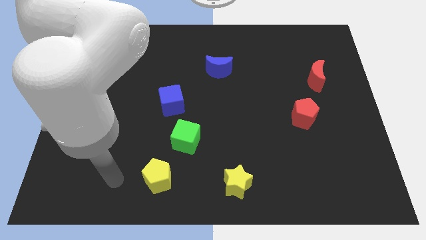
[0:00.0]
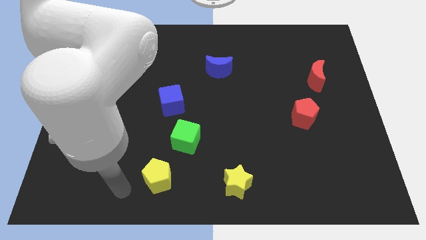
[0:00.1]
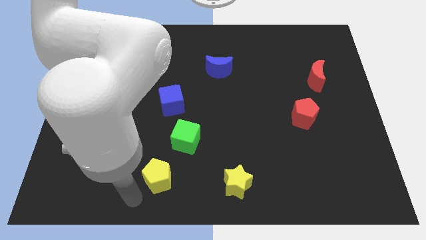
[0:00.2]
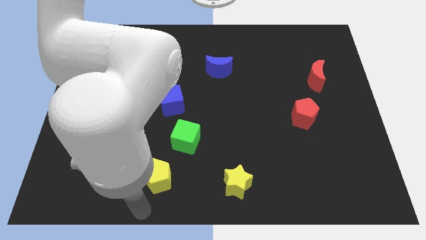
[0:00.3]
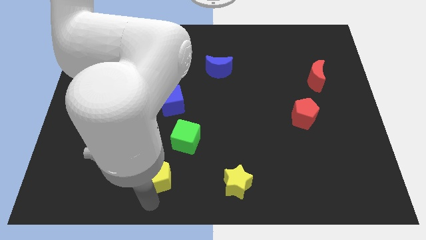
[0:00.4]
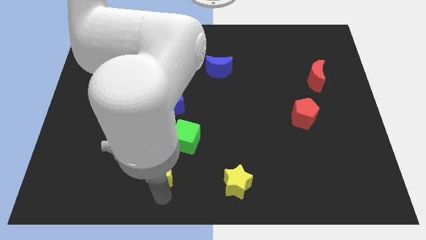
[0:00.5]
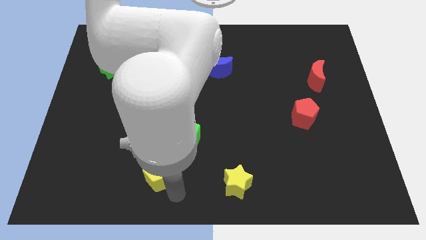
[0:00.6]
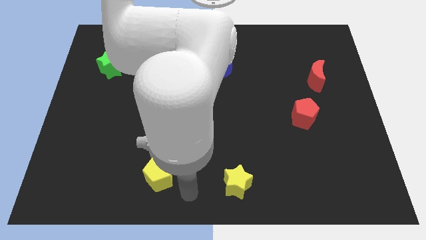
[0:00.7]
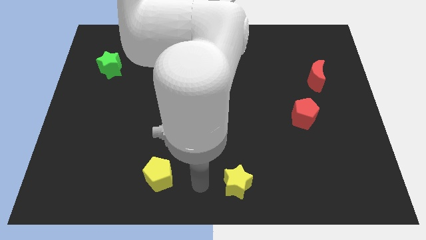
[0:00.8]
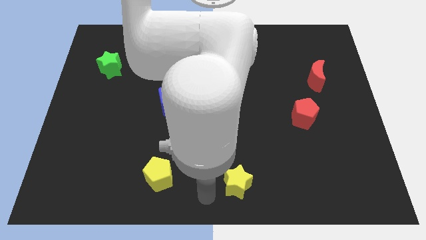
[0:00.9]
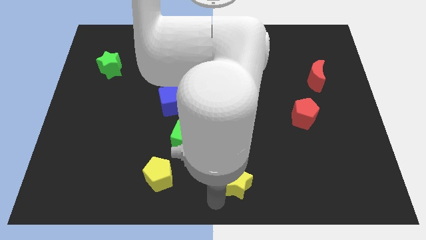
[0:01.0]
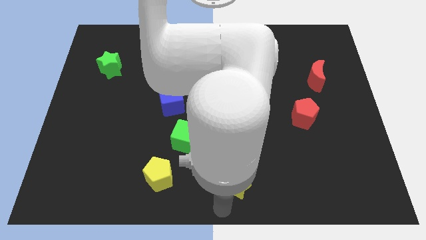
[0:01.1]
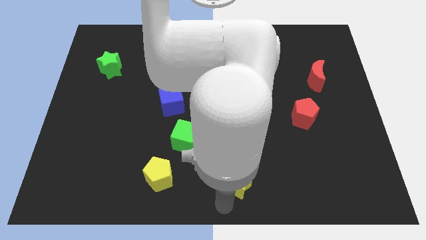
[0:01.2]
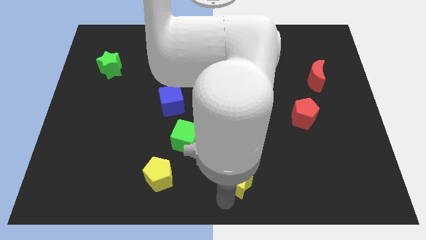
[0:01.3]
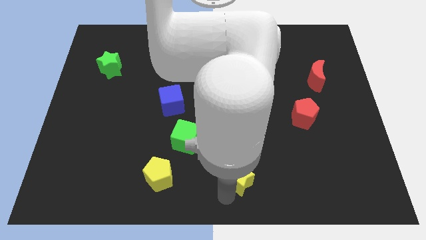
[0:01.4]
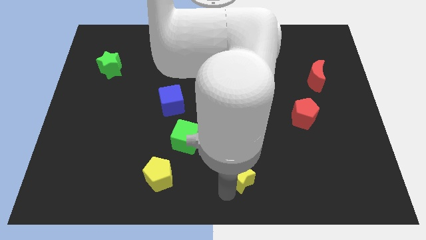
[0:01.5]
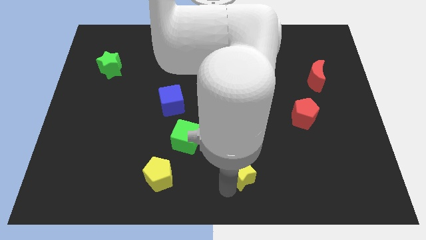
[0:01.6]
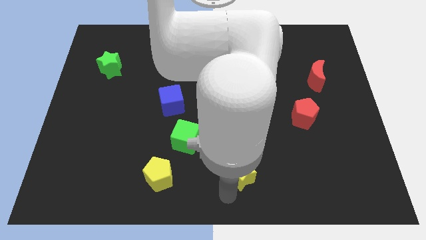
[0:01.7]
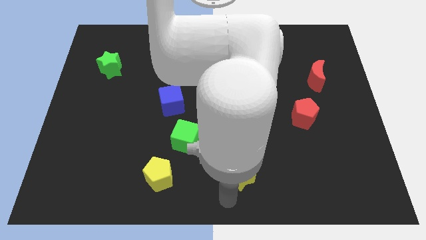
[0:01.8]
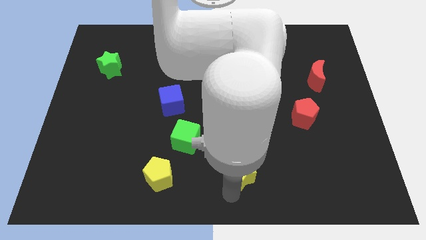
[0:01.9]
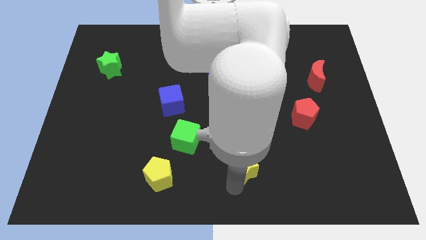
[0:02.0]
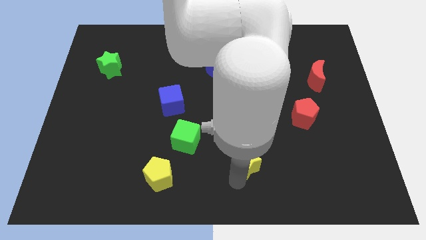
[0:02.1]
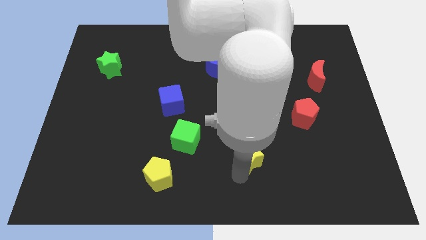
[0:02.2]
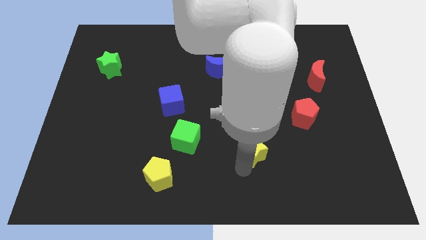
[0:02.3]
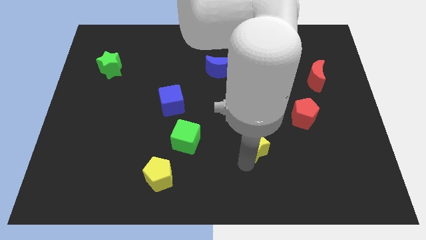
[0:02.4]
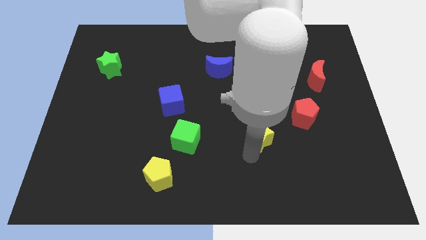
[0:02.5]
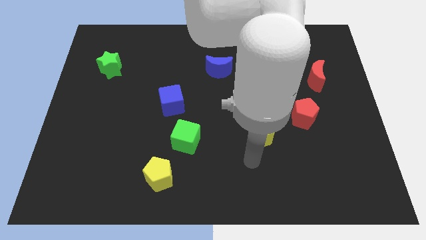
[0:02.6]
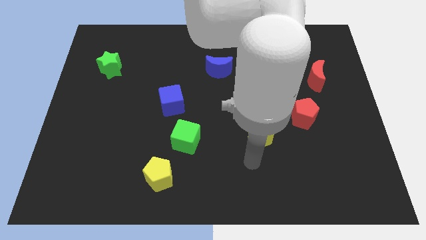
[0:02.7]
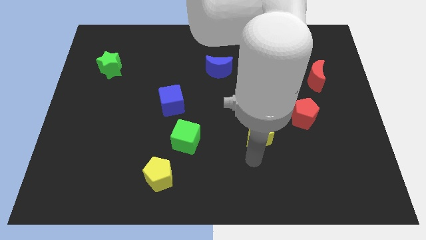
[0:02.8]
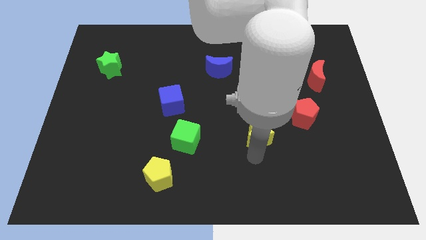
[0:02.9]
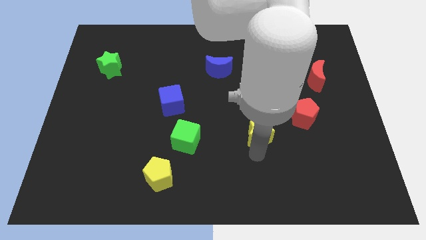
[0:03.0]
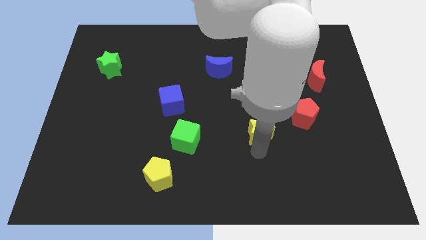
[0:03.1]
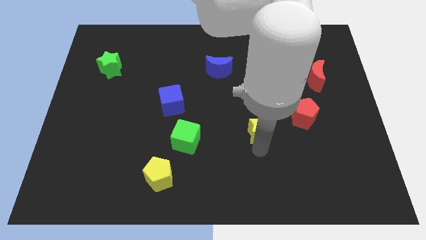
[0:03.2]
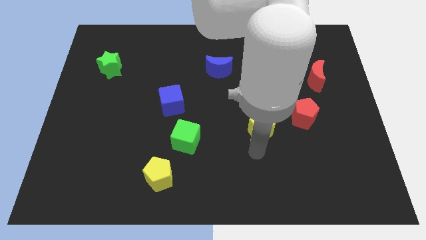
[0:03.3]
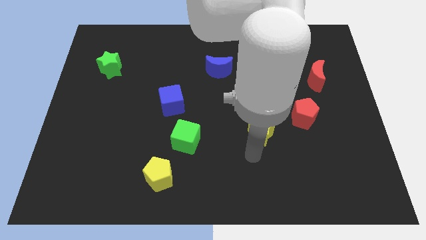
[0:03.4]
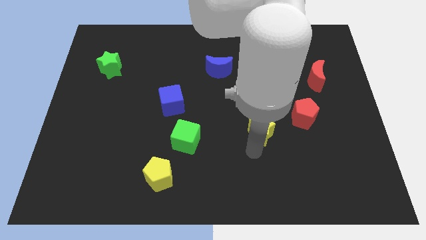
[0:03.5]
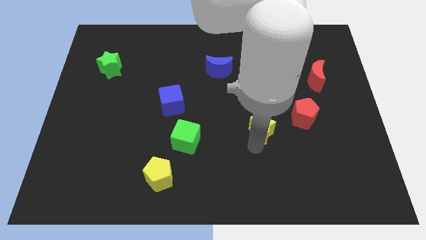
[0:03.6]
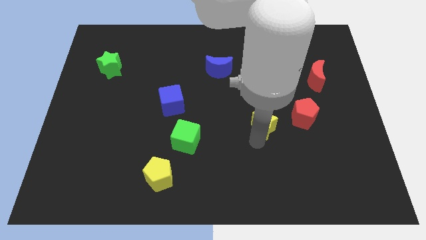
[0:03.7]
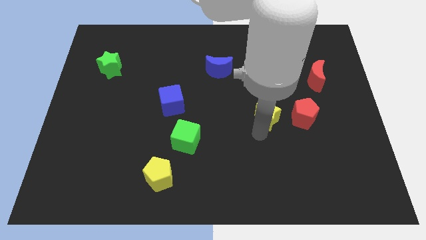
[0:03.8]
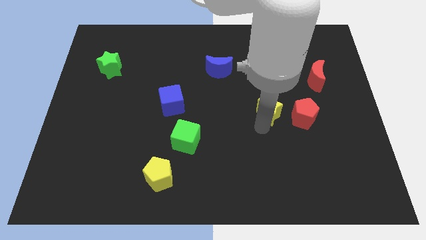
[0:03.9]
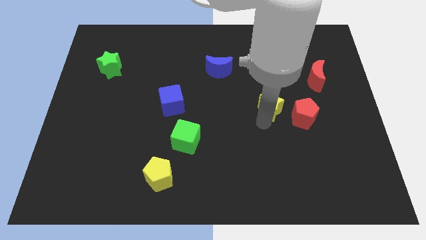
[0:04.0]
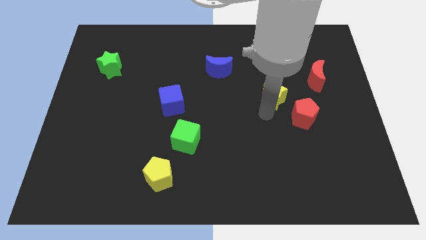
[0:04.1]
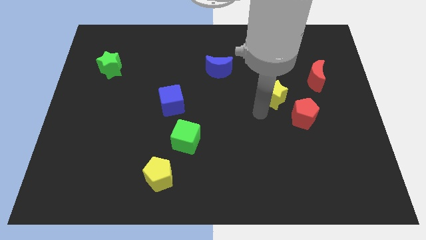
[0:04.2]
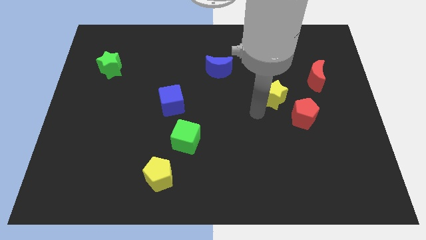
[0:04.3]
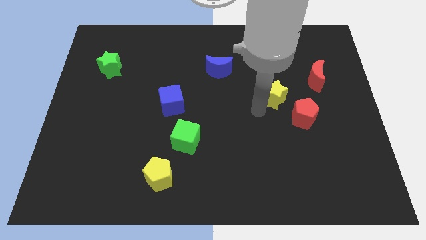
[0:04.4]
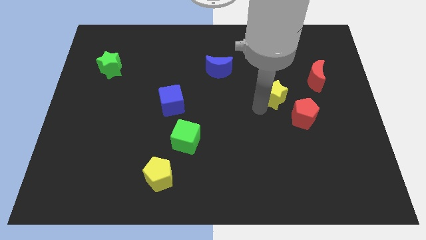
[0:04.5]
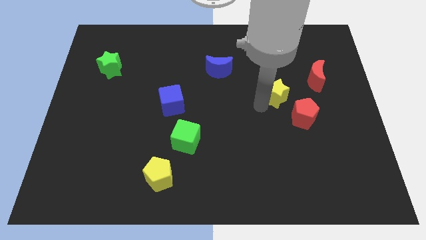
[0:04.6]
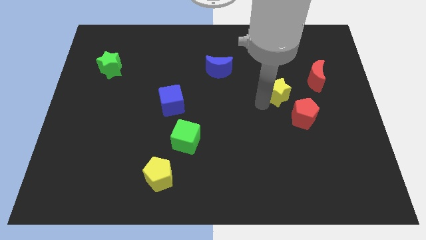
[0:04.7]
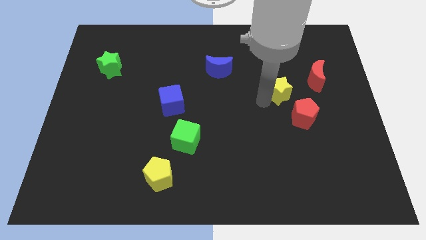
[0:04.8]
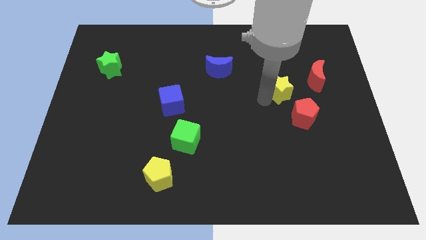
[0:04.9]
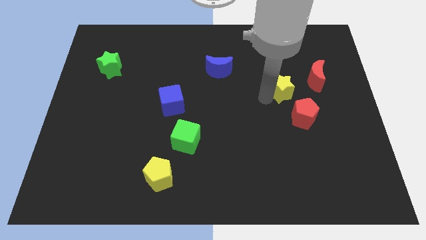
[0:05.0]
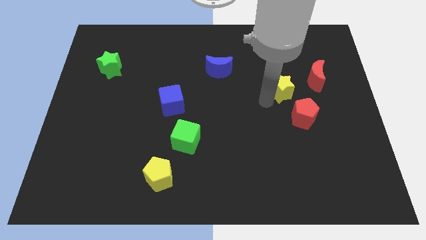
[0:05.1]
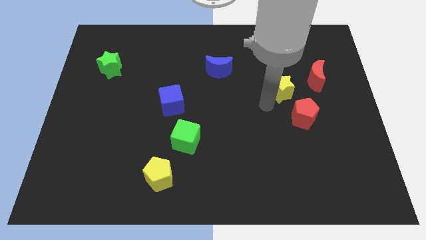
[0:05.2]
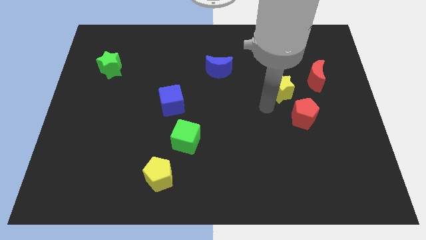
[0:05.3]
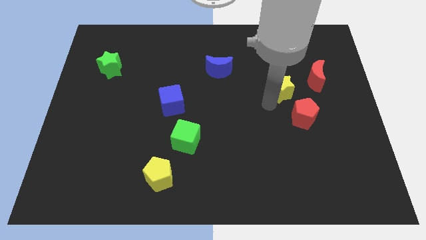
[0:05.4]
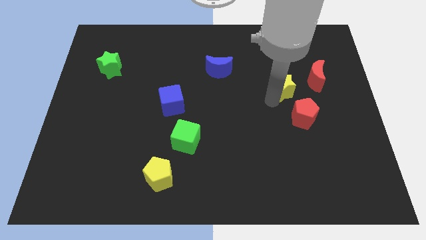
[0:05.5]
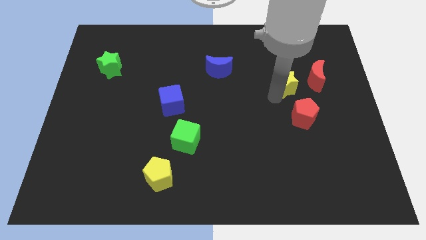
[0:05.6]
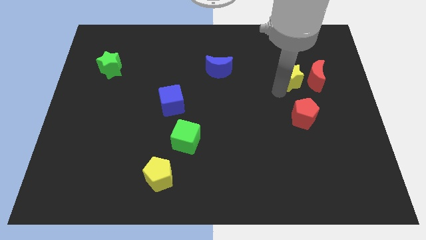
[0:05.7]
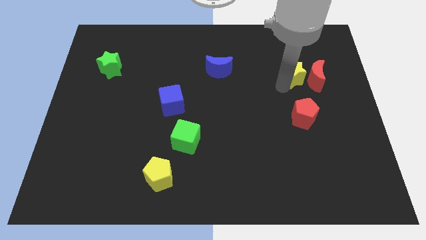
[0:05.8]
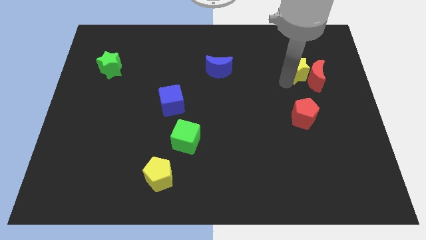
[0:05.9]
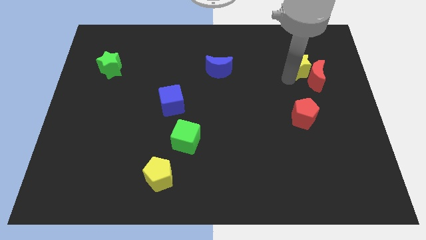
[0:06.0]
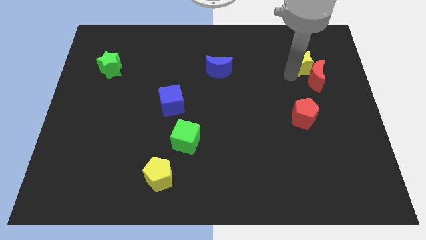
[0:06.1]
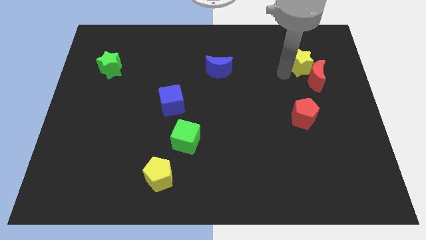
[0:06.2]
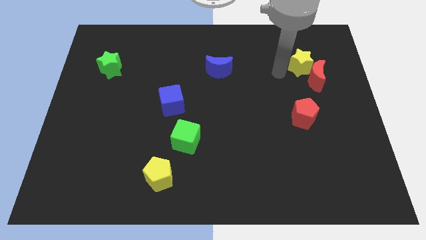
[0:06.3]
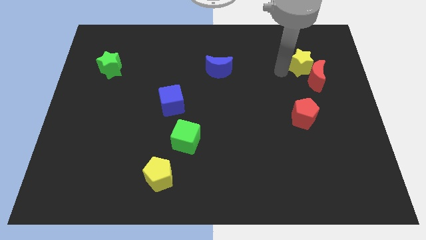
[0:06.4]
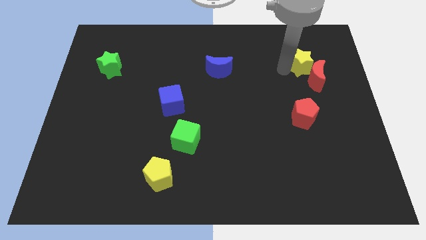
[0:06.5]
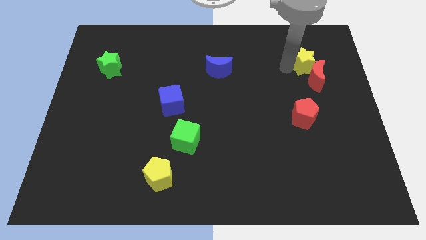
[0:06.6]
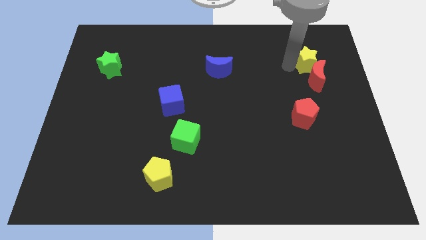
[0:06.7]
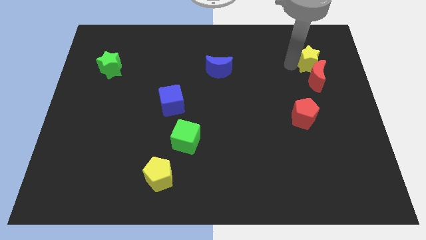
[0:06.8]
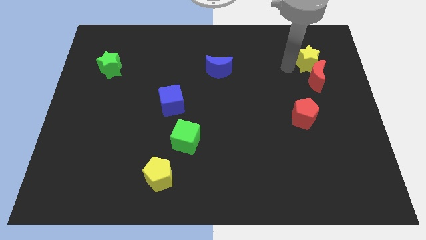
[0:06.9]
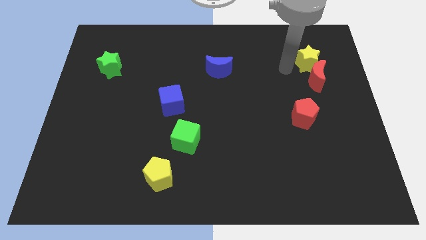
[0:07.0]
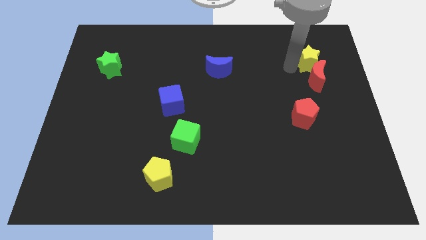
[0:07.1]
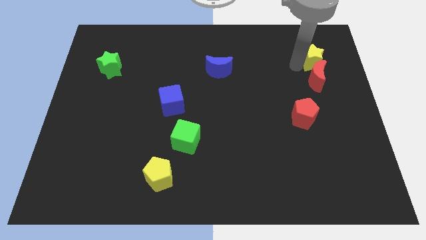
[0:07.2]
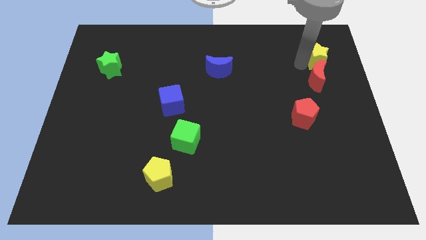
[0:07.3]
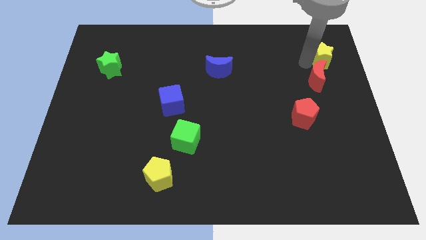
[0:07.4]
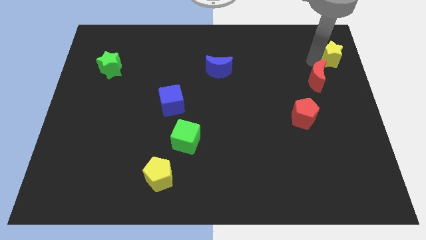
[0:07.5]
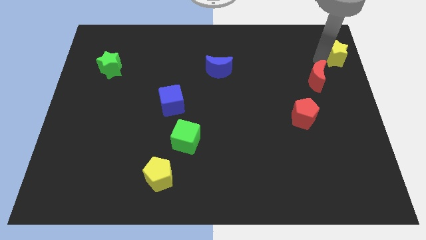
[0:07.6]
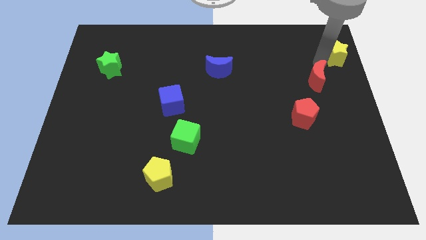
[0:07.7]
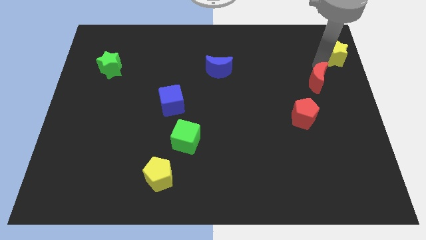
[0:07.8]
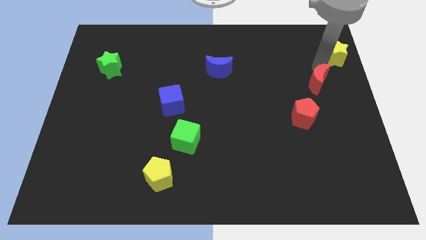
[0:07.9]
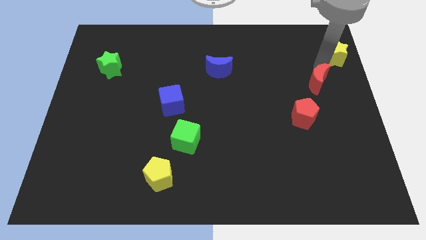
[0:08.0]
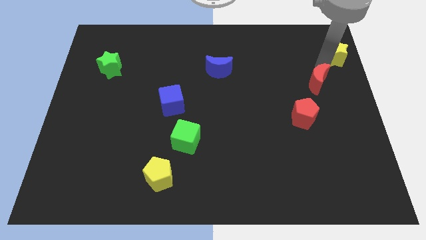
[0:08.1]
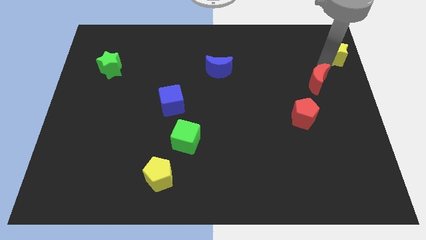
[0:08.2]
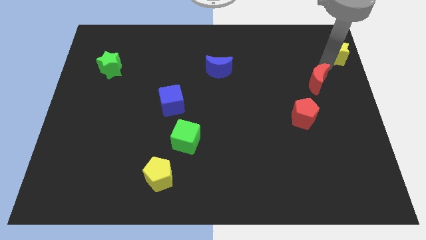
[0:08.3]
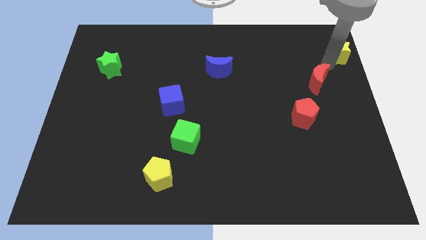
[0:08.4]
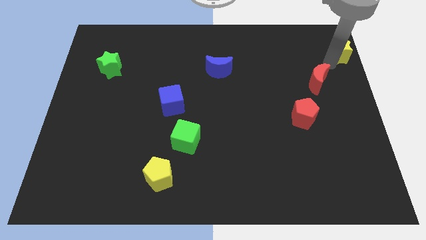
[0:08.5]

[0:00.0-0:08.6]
move the yellow star to the top right
